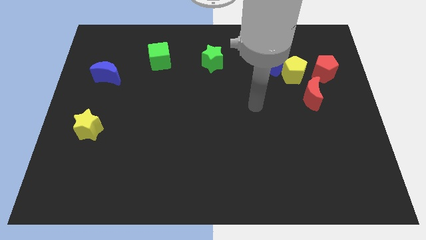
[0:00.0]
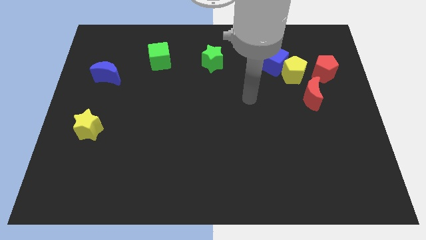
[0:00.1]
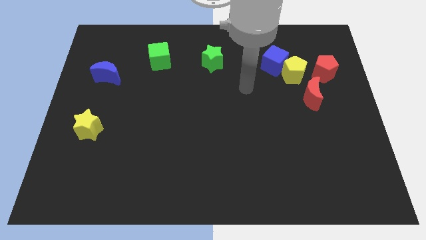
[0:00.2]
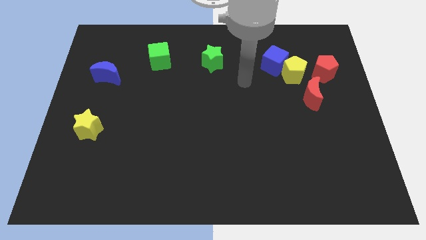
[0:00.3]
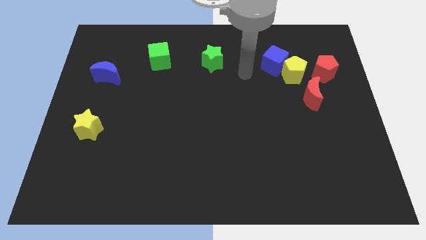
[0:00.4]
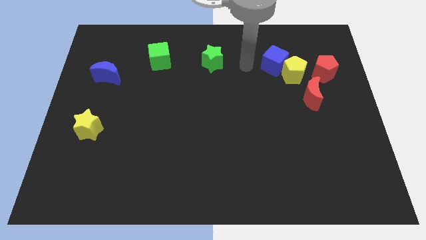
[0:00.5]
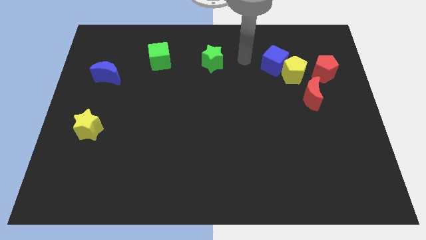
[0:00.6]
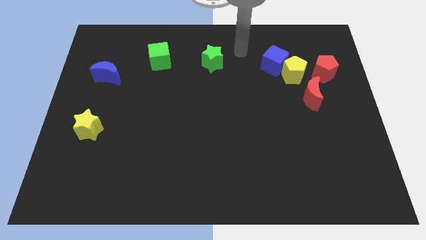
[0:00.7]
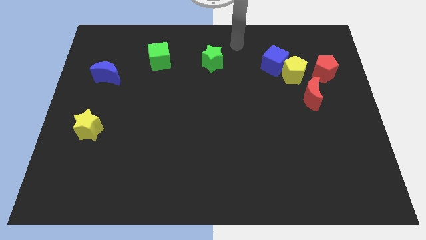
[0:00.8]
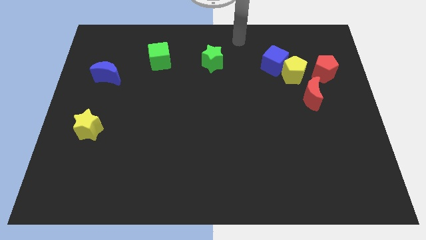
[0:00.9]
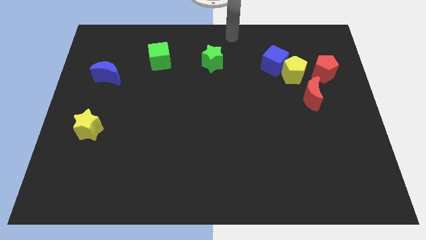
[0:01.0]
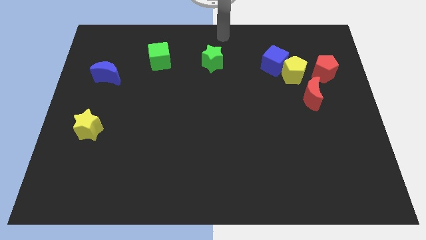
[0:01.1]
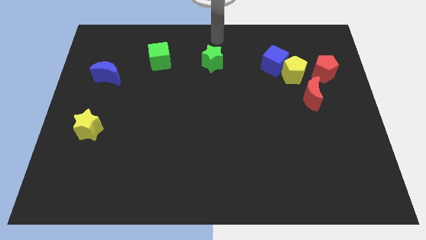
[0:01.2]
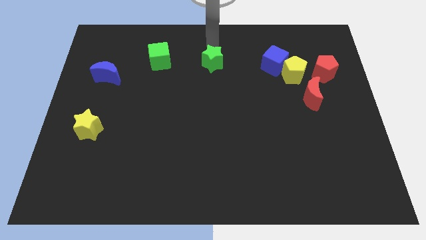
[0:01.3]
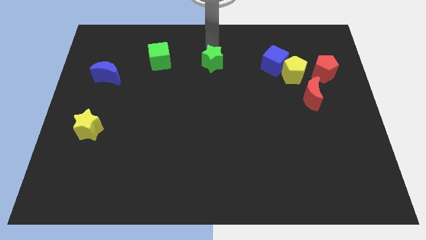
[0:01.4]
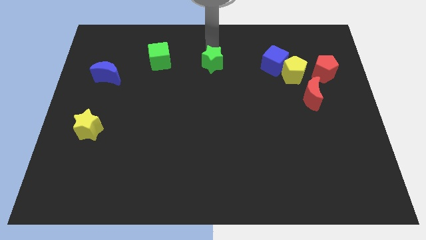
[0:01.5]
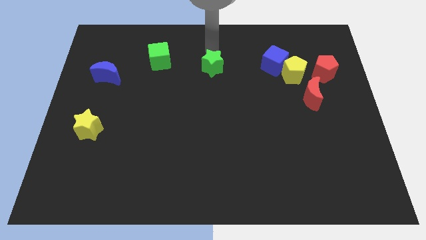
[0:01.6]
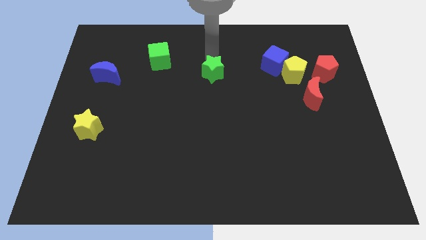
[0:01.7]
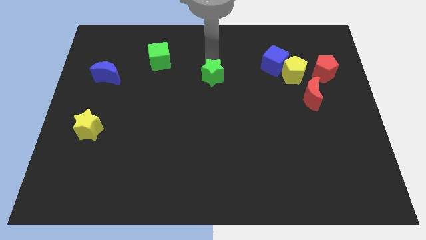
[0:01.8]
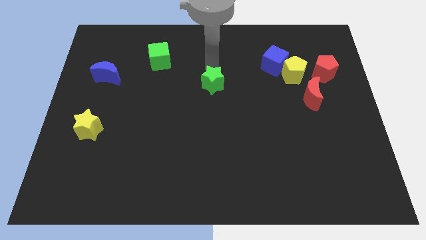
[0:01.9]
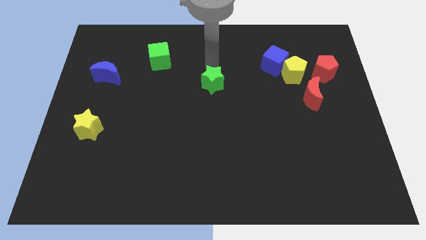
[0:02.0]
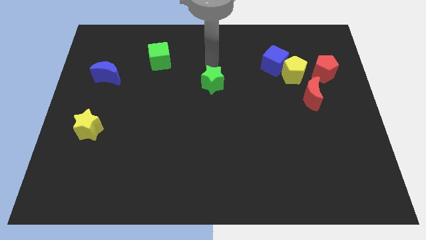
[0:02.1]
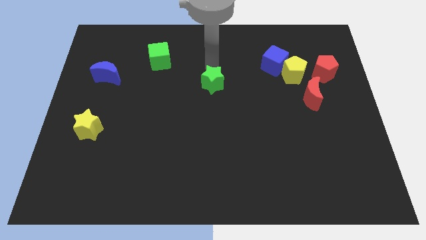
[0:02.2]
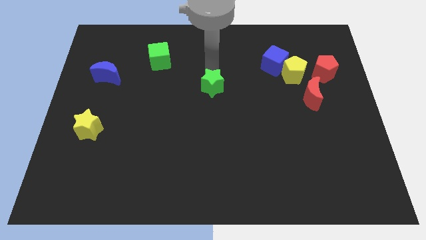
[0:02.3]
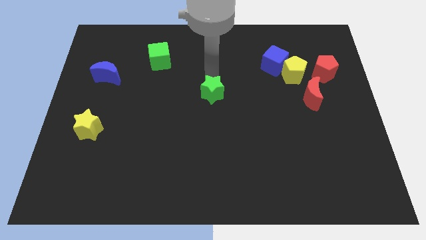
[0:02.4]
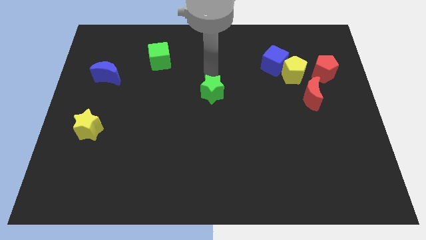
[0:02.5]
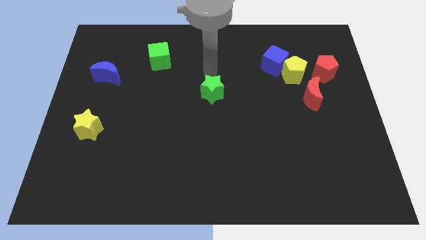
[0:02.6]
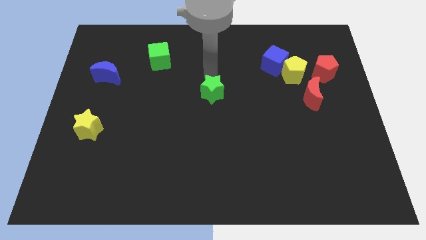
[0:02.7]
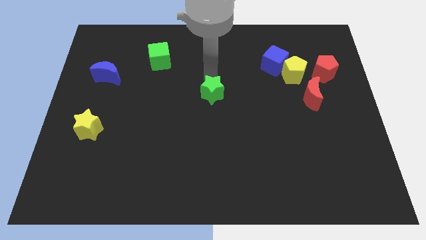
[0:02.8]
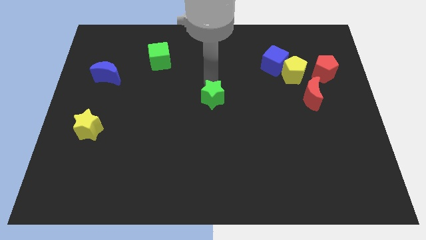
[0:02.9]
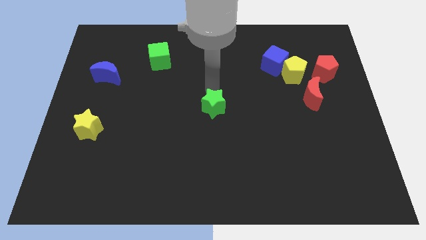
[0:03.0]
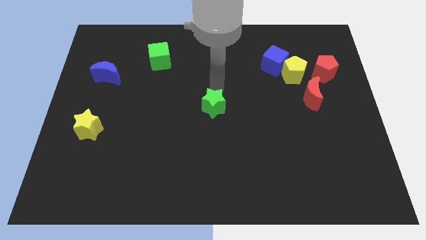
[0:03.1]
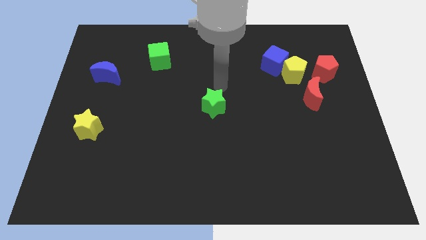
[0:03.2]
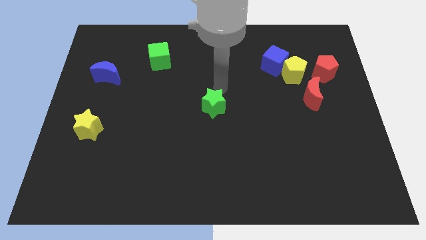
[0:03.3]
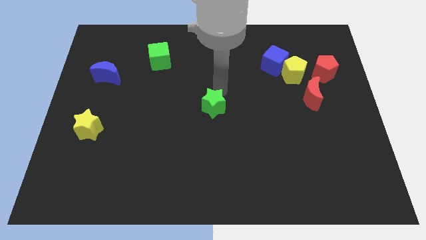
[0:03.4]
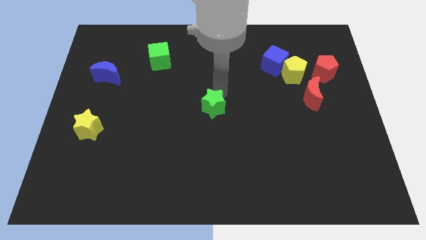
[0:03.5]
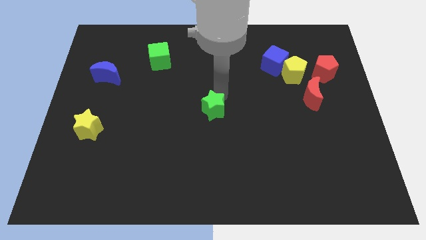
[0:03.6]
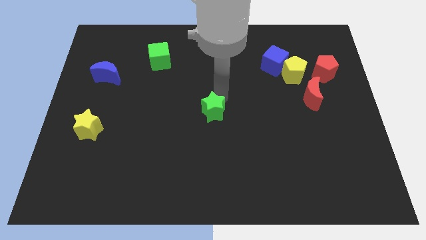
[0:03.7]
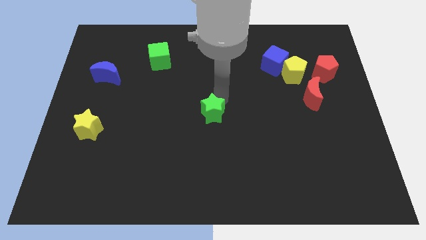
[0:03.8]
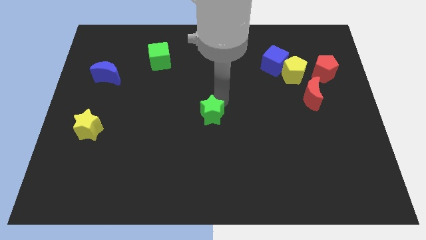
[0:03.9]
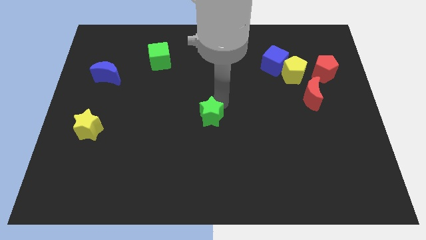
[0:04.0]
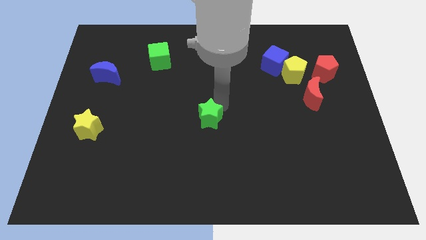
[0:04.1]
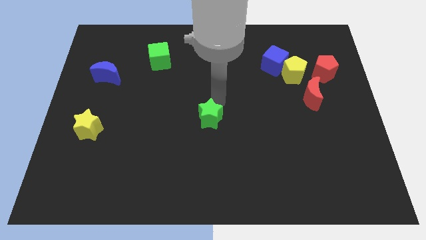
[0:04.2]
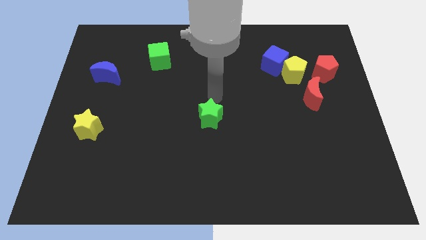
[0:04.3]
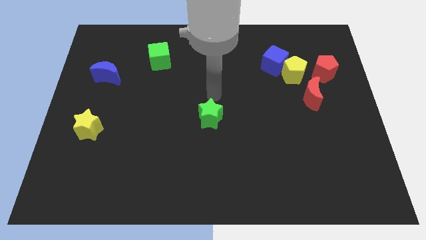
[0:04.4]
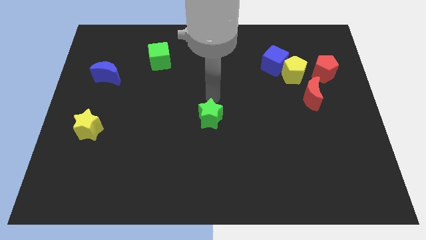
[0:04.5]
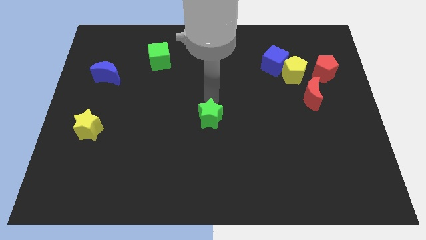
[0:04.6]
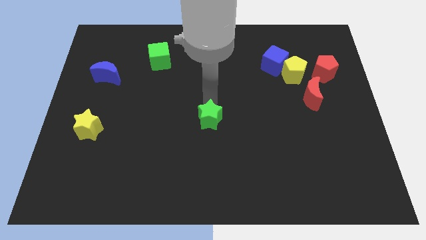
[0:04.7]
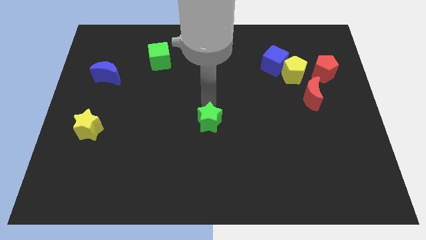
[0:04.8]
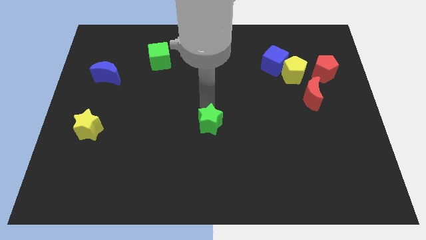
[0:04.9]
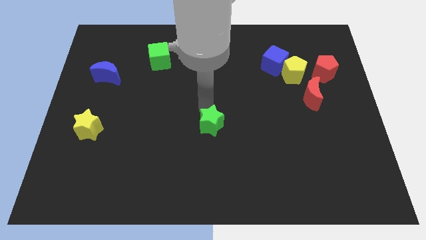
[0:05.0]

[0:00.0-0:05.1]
move the green star down

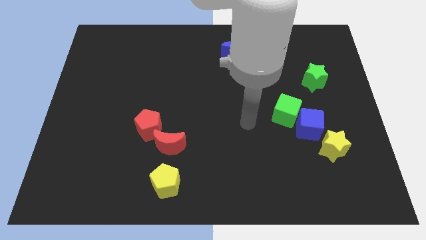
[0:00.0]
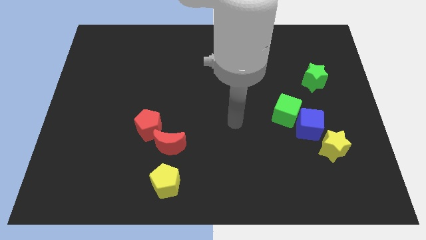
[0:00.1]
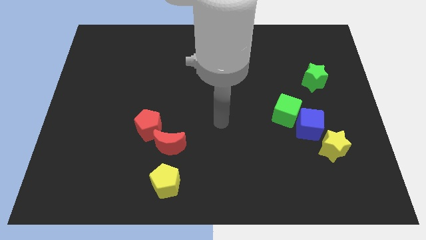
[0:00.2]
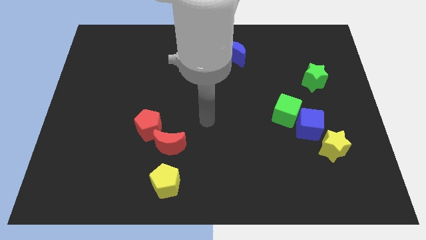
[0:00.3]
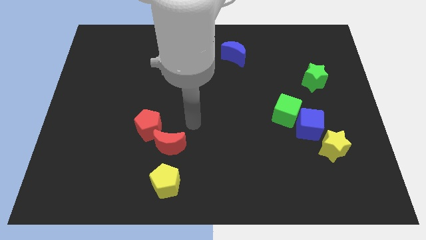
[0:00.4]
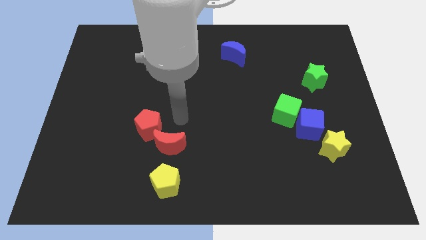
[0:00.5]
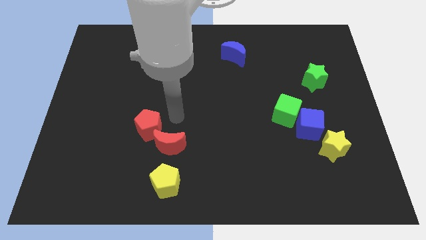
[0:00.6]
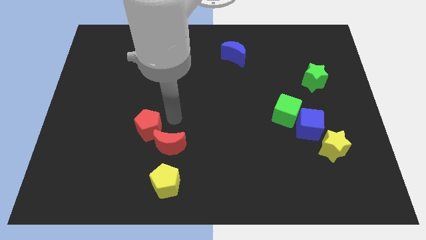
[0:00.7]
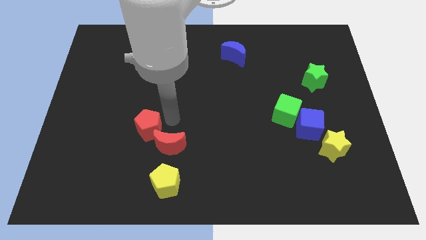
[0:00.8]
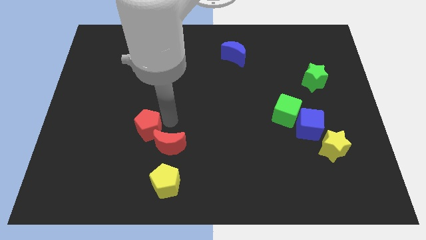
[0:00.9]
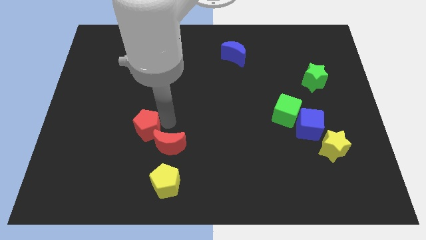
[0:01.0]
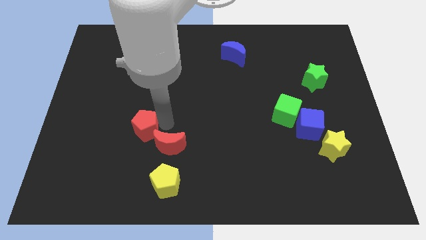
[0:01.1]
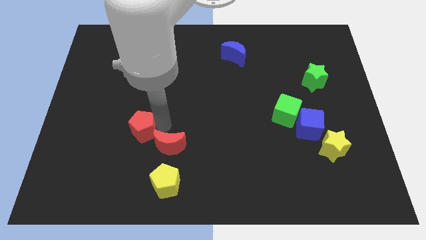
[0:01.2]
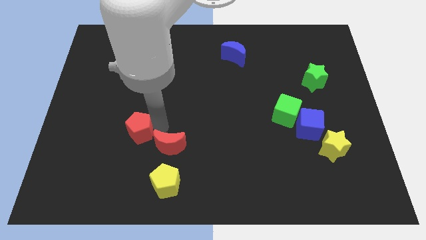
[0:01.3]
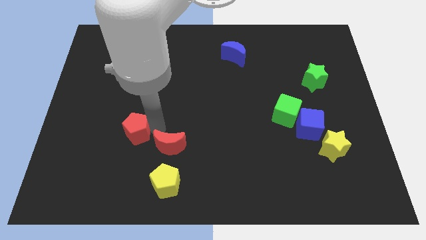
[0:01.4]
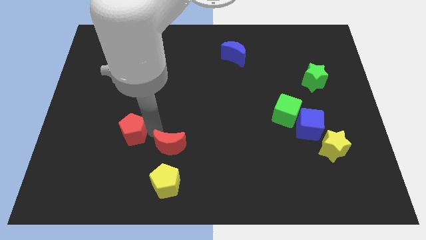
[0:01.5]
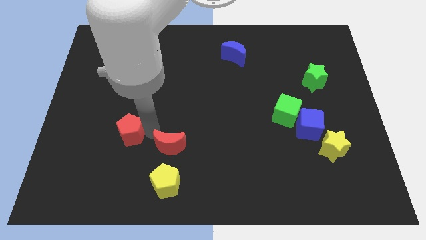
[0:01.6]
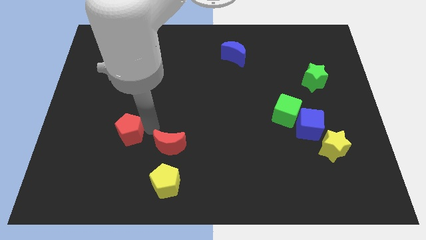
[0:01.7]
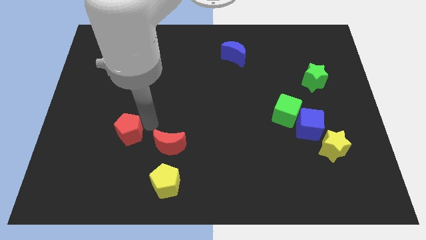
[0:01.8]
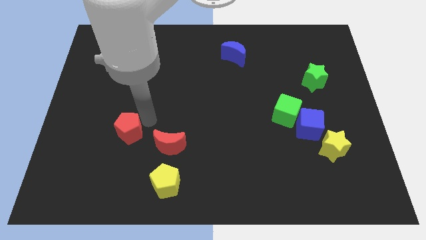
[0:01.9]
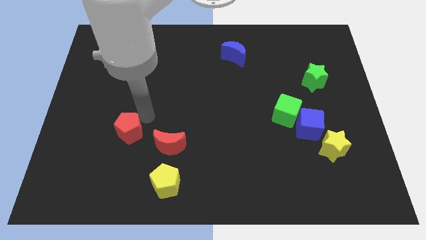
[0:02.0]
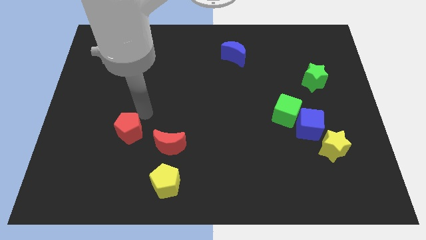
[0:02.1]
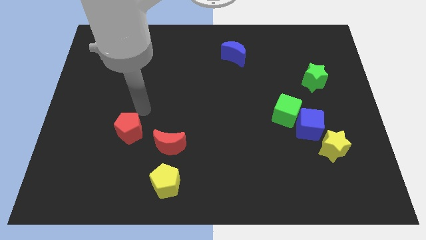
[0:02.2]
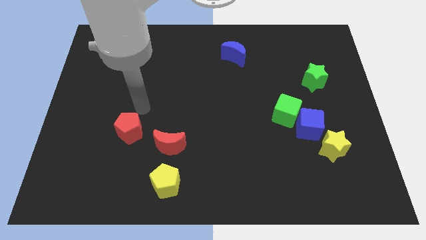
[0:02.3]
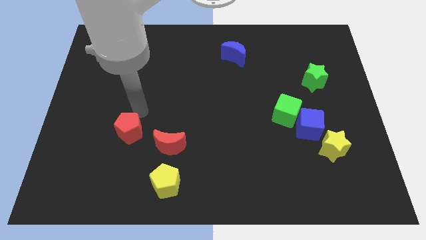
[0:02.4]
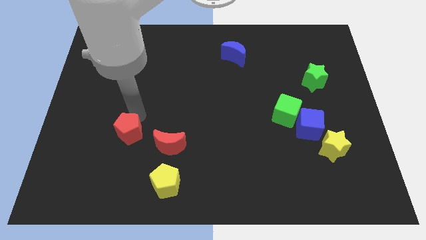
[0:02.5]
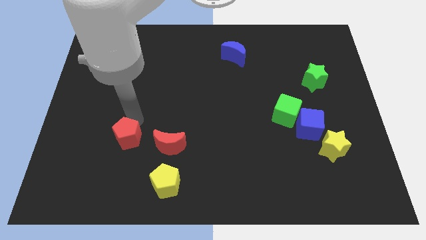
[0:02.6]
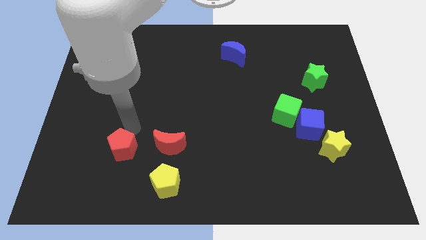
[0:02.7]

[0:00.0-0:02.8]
slightly move the red pentagon downwards and left diagonally

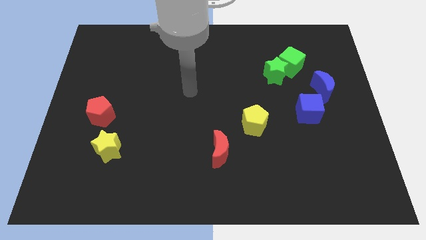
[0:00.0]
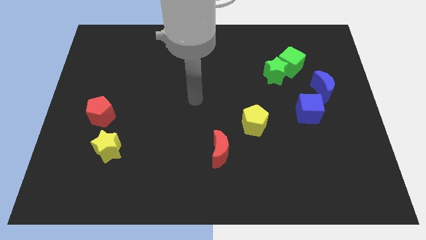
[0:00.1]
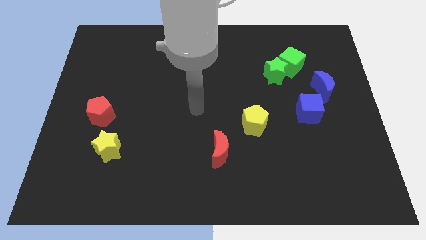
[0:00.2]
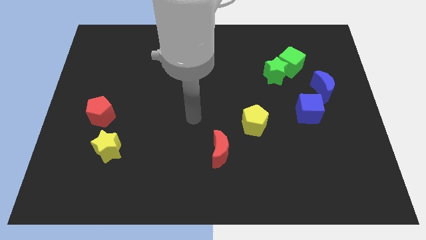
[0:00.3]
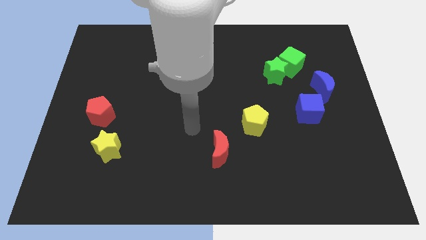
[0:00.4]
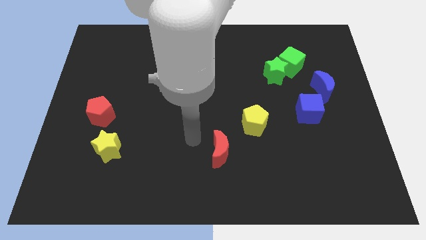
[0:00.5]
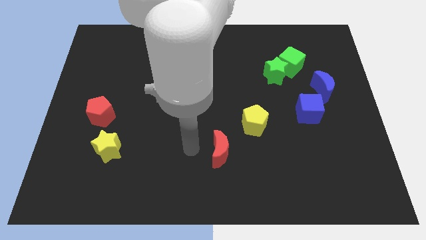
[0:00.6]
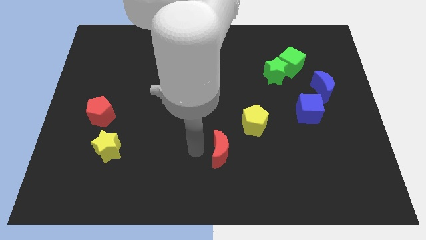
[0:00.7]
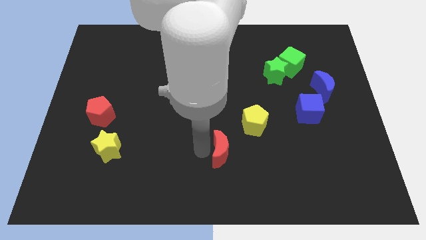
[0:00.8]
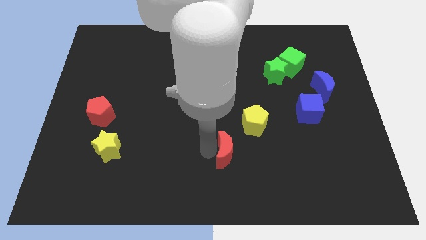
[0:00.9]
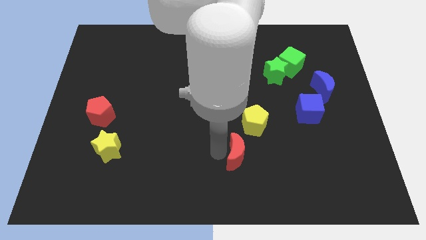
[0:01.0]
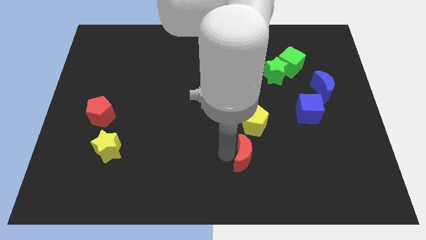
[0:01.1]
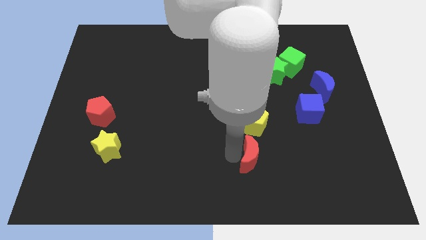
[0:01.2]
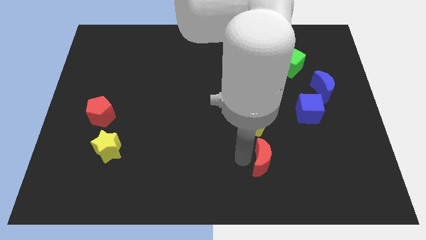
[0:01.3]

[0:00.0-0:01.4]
push the red moon somewhat to the right
